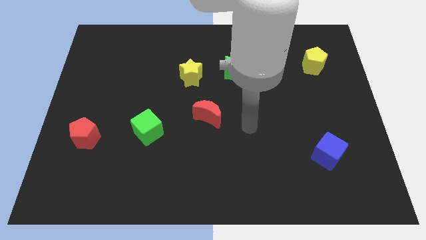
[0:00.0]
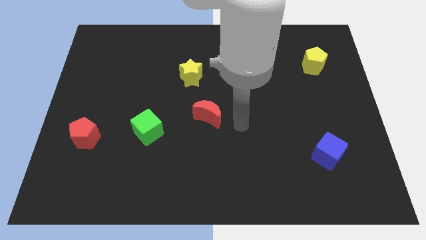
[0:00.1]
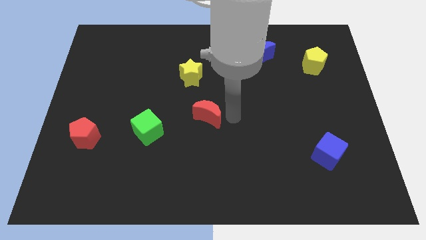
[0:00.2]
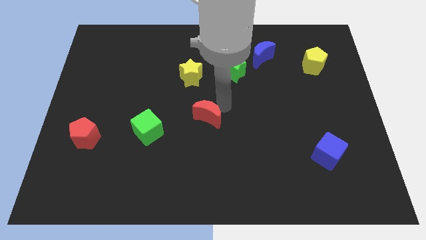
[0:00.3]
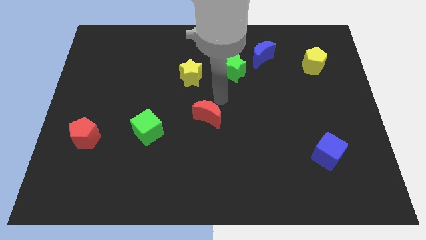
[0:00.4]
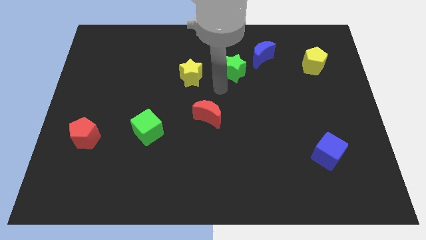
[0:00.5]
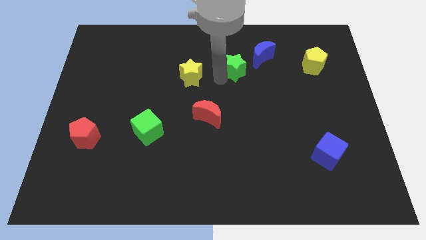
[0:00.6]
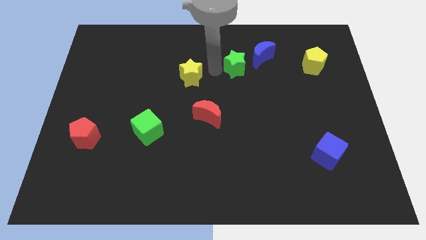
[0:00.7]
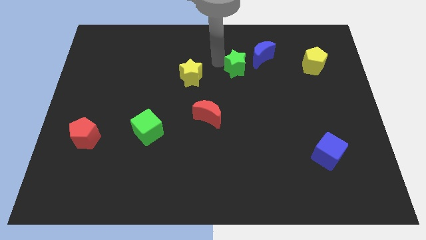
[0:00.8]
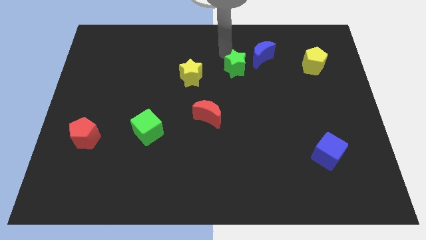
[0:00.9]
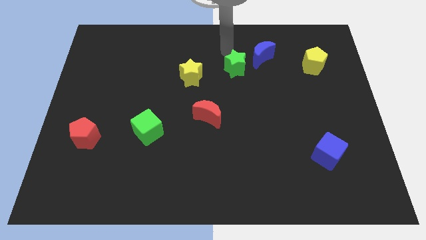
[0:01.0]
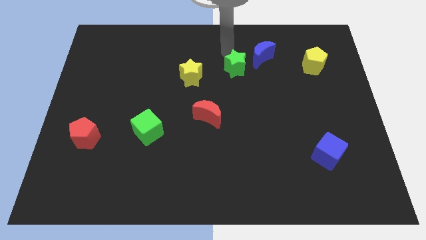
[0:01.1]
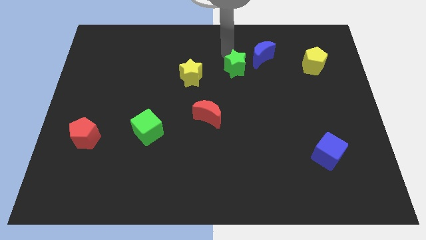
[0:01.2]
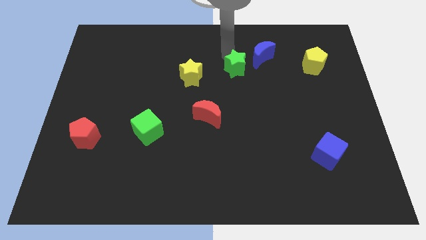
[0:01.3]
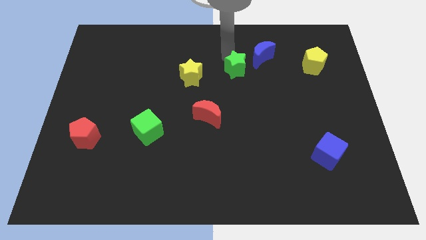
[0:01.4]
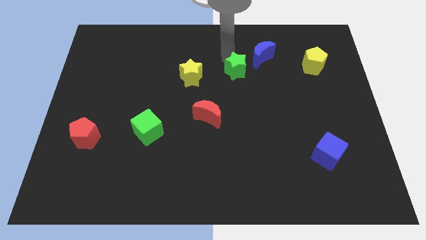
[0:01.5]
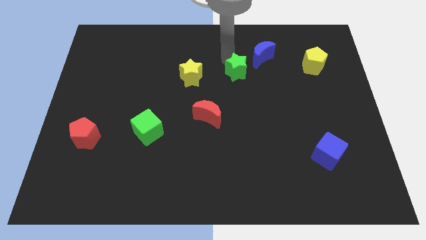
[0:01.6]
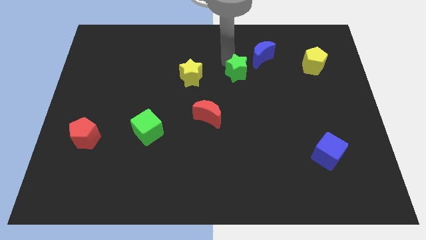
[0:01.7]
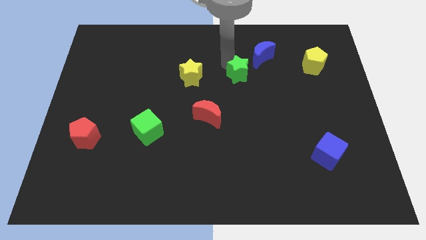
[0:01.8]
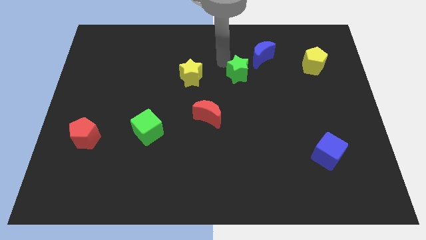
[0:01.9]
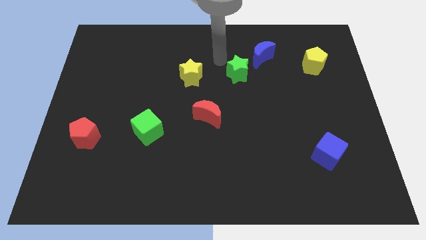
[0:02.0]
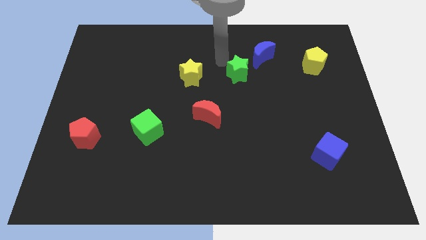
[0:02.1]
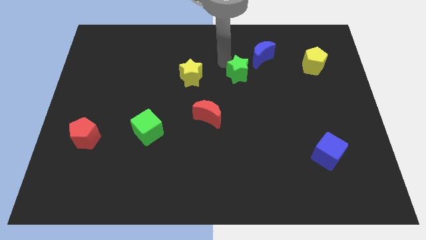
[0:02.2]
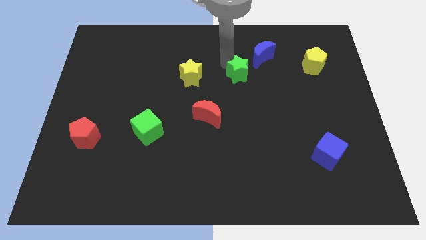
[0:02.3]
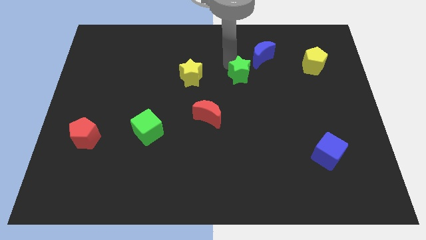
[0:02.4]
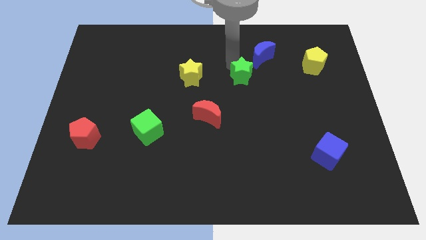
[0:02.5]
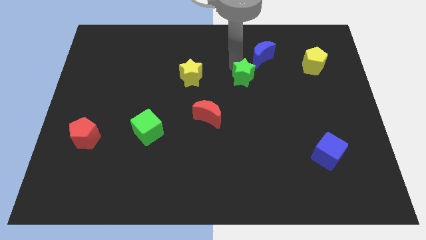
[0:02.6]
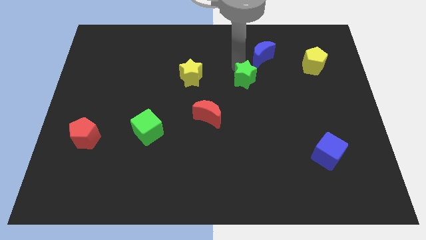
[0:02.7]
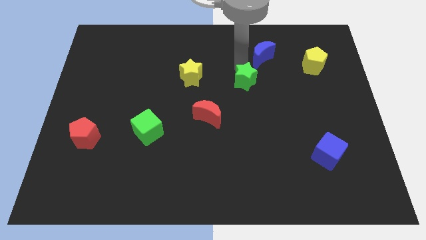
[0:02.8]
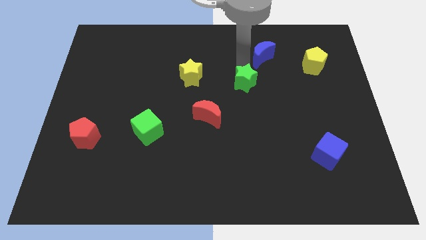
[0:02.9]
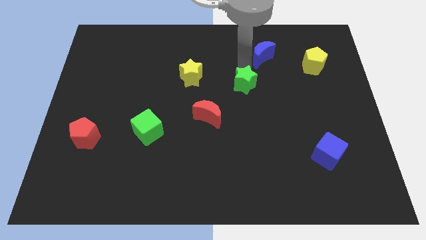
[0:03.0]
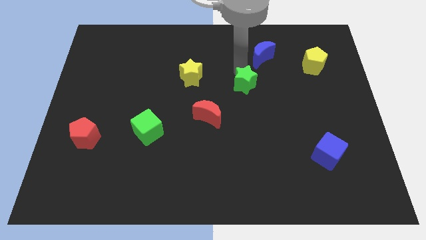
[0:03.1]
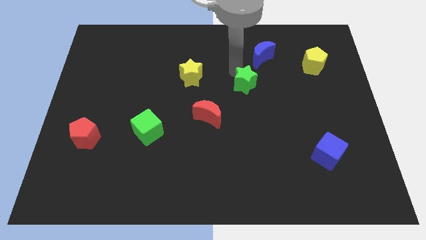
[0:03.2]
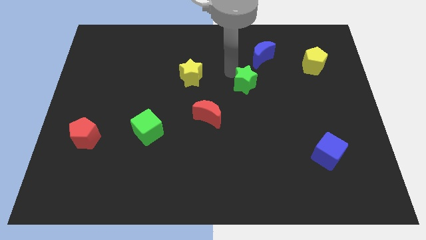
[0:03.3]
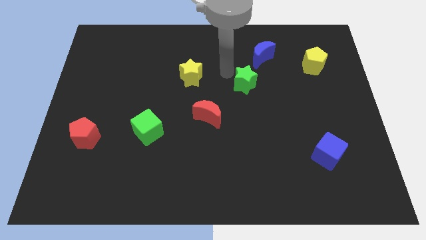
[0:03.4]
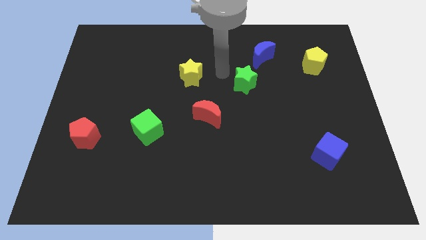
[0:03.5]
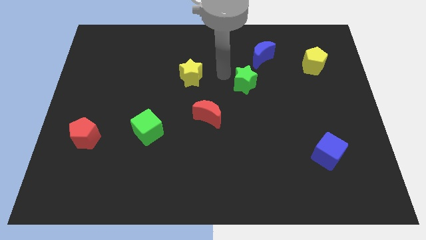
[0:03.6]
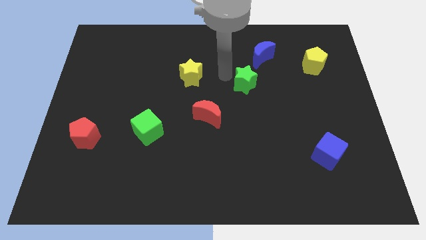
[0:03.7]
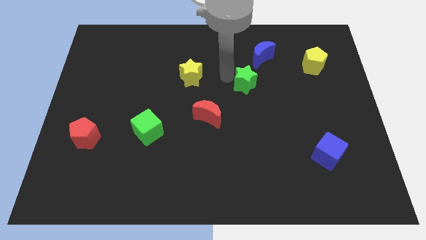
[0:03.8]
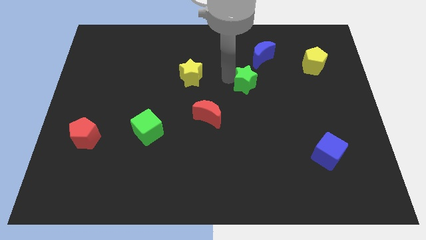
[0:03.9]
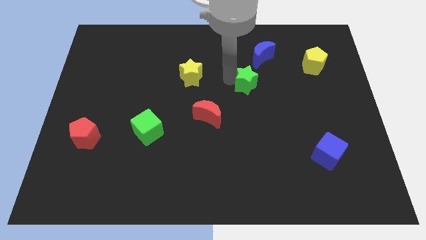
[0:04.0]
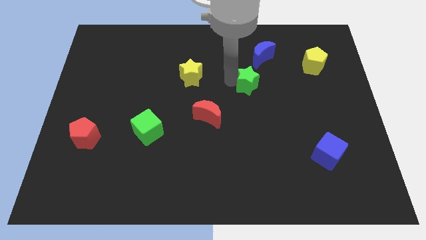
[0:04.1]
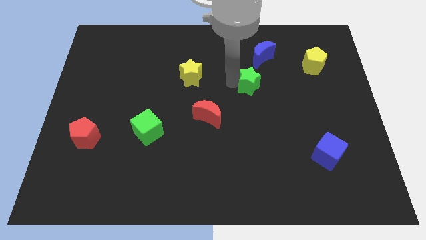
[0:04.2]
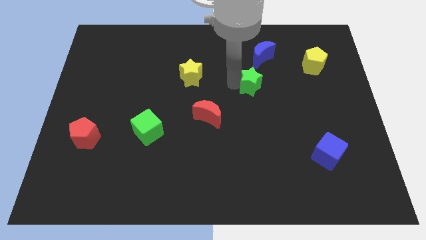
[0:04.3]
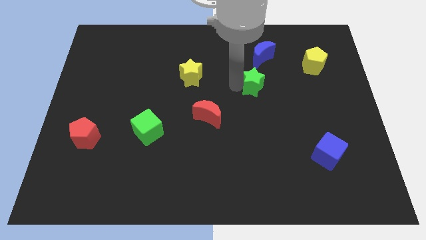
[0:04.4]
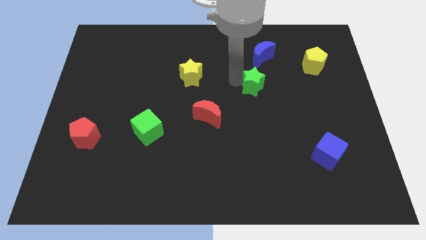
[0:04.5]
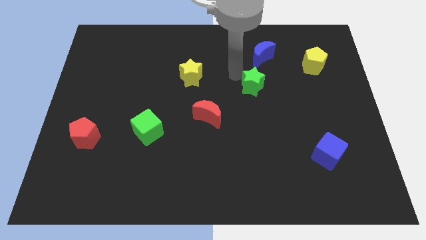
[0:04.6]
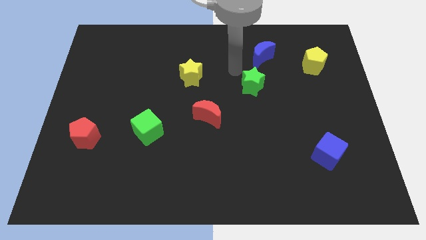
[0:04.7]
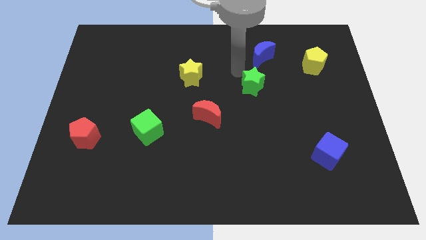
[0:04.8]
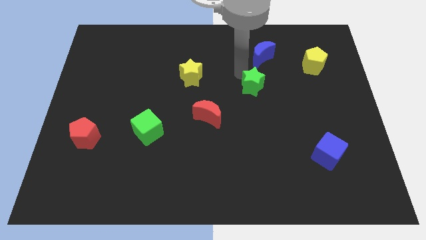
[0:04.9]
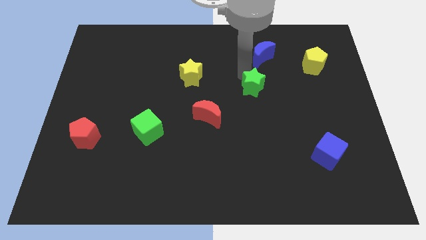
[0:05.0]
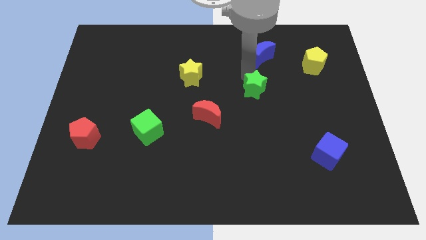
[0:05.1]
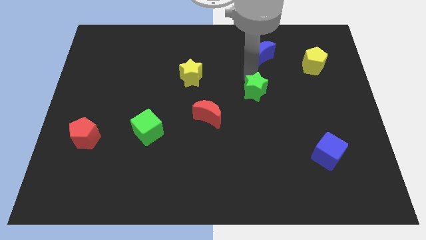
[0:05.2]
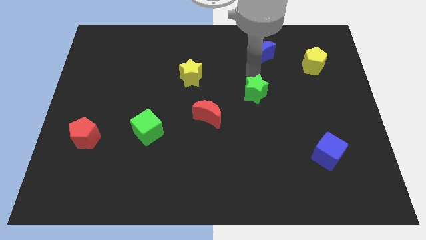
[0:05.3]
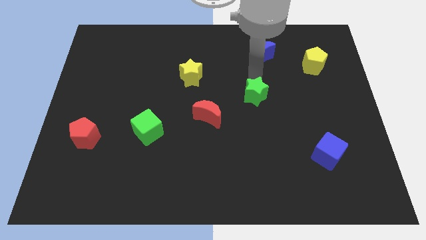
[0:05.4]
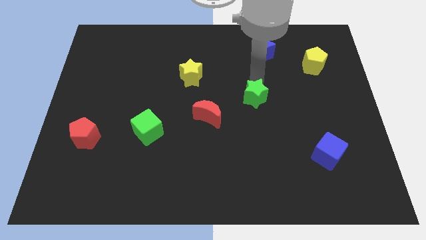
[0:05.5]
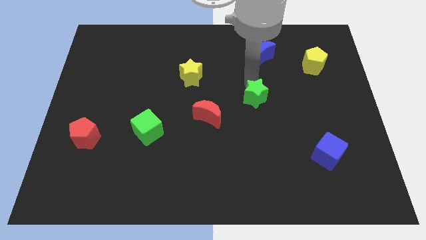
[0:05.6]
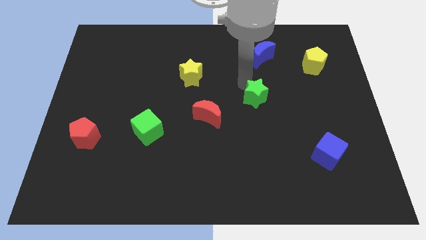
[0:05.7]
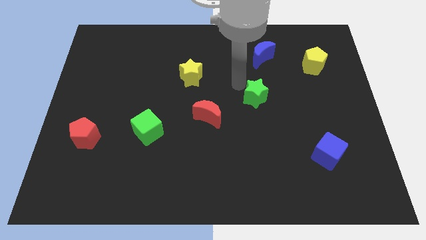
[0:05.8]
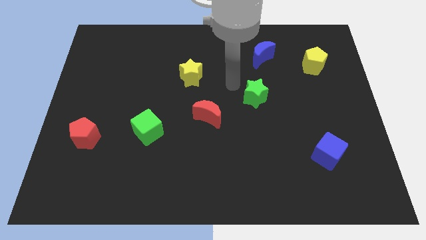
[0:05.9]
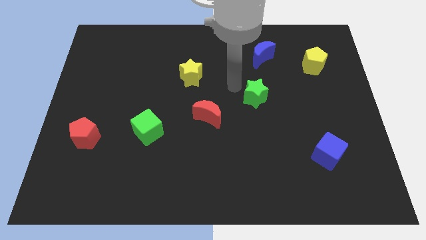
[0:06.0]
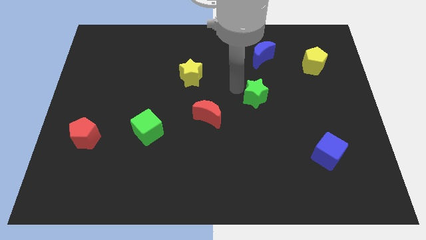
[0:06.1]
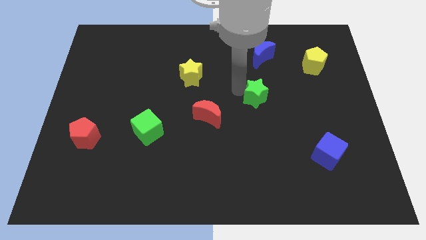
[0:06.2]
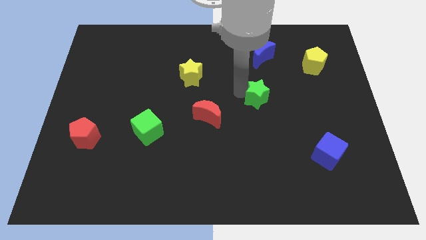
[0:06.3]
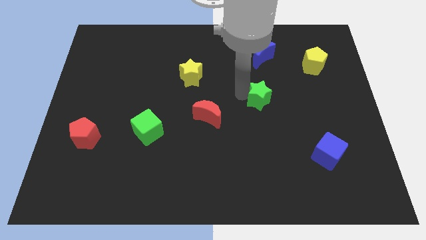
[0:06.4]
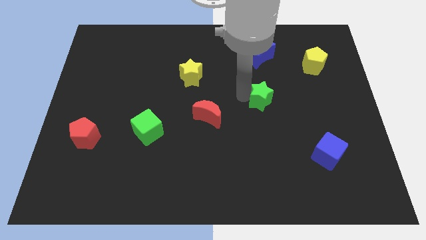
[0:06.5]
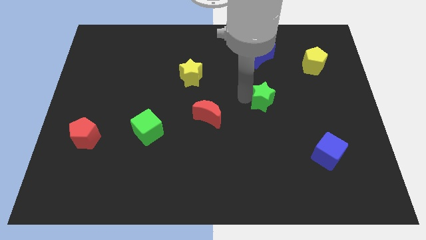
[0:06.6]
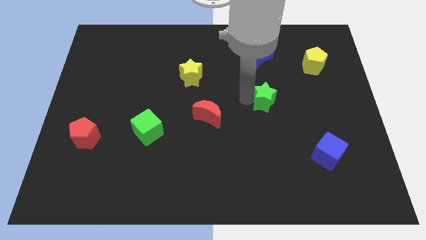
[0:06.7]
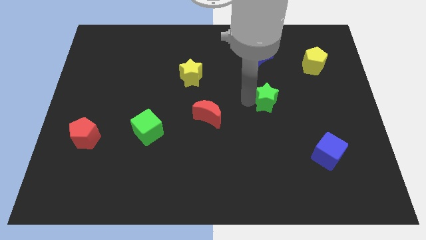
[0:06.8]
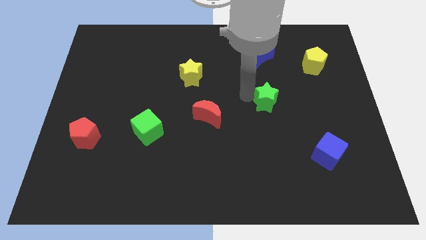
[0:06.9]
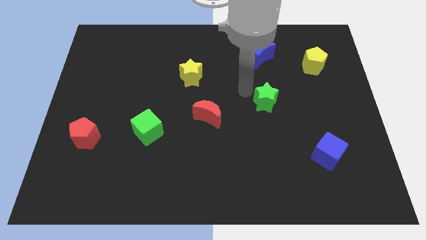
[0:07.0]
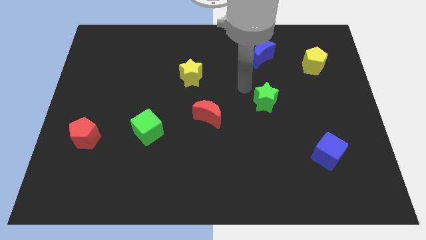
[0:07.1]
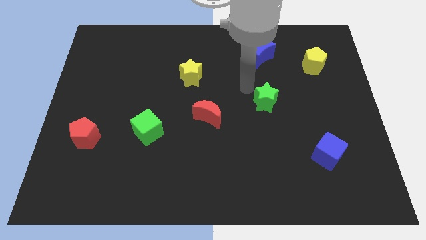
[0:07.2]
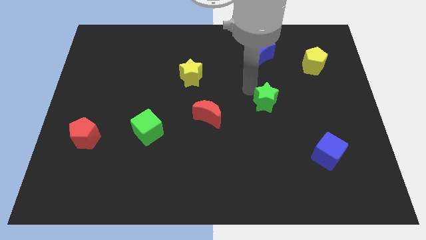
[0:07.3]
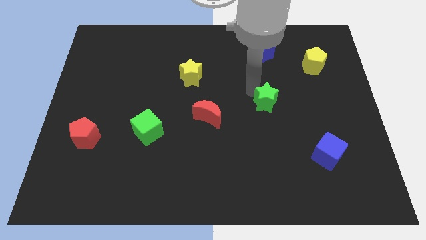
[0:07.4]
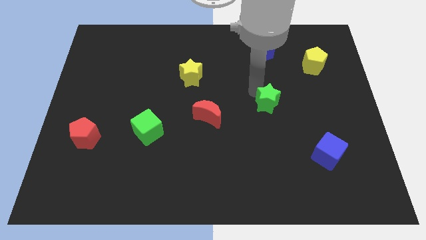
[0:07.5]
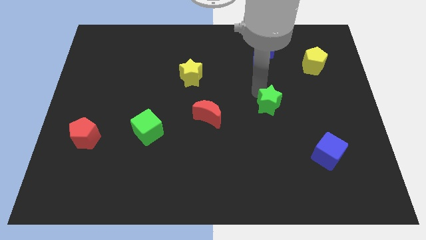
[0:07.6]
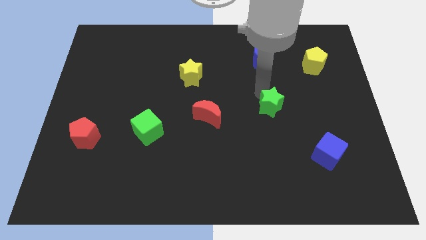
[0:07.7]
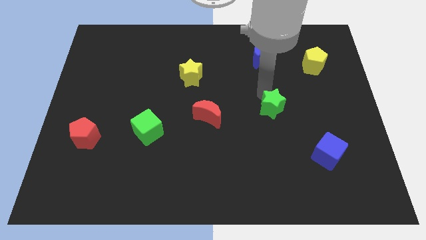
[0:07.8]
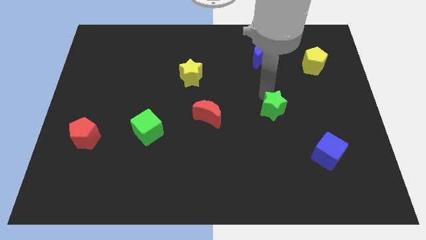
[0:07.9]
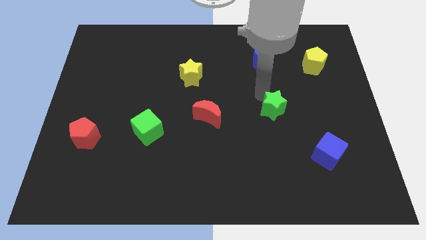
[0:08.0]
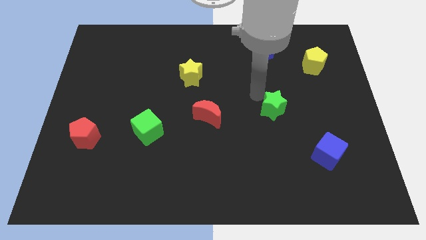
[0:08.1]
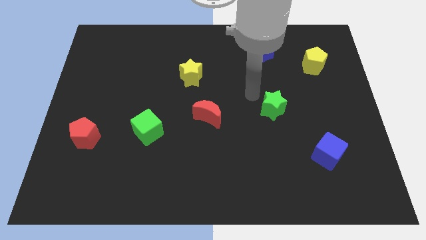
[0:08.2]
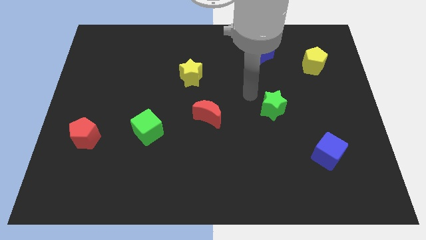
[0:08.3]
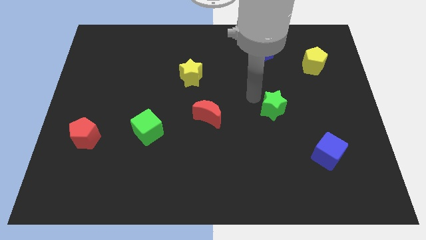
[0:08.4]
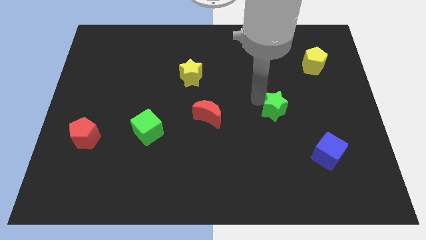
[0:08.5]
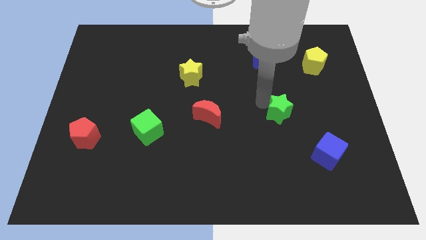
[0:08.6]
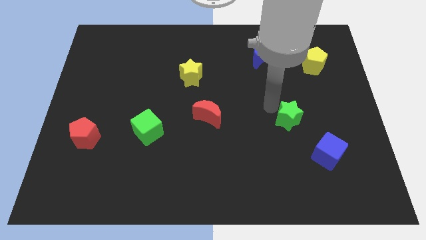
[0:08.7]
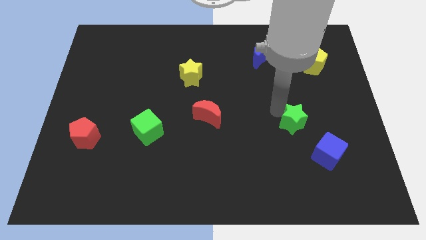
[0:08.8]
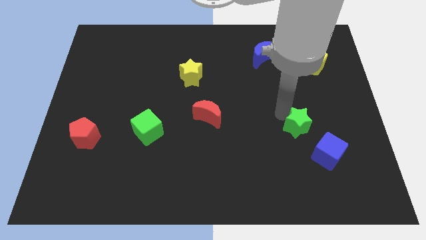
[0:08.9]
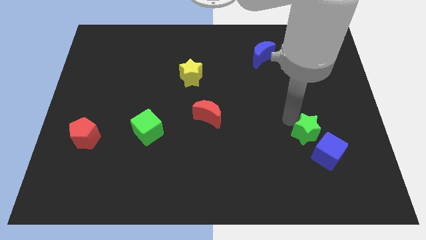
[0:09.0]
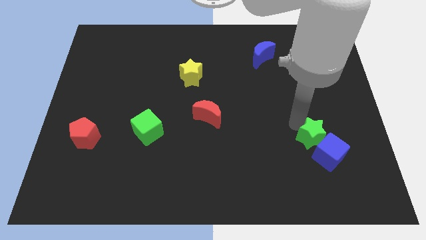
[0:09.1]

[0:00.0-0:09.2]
push the green star to the blue cube
